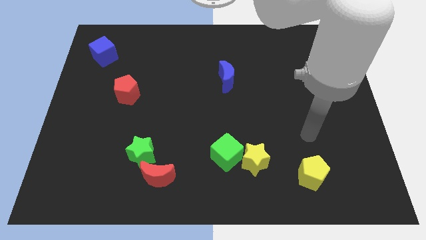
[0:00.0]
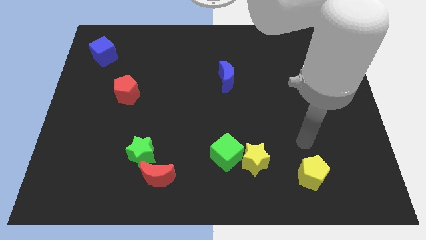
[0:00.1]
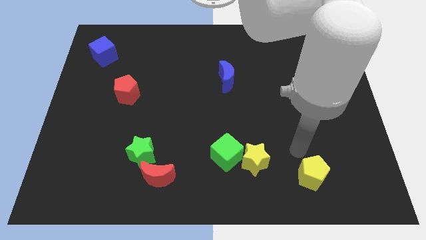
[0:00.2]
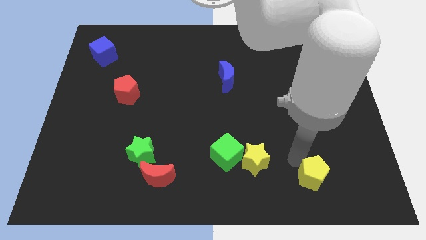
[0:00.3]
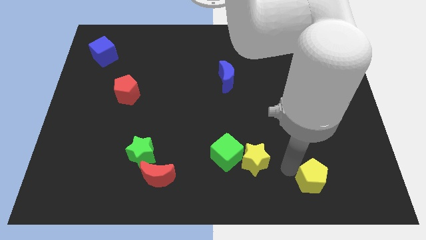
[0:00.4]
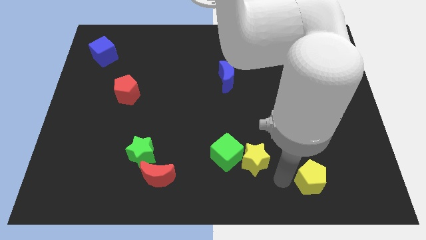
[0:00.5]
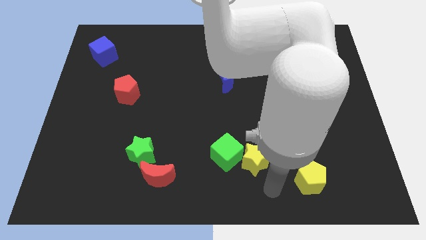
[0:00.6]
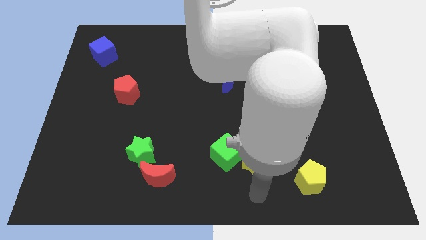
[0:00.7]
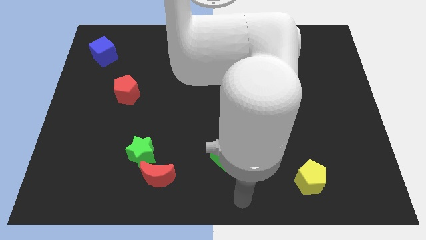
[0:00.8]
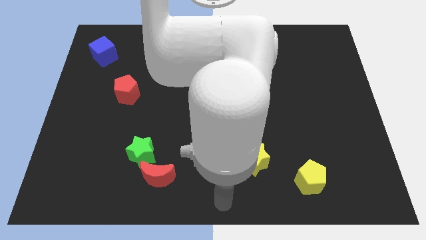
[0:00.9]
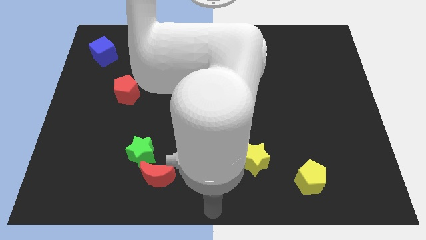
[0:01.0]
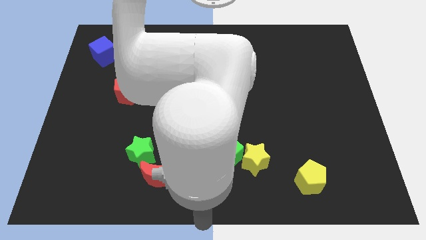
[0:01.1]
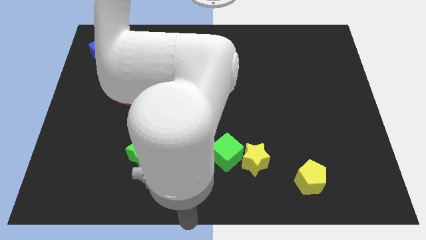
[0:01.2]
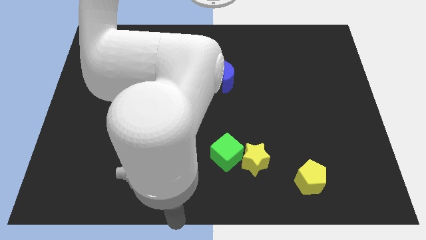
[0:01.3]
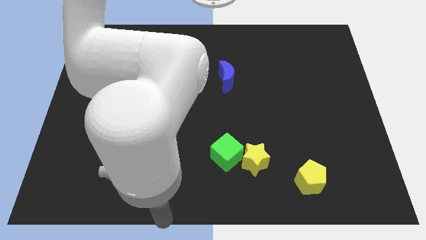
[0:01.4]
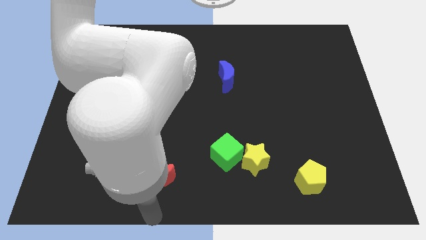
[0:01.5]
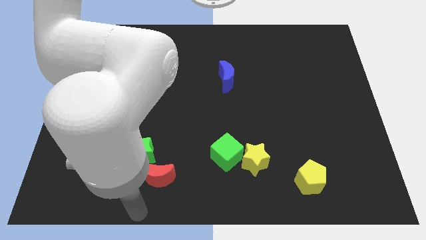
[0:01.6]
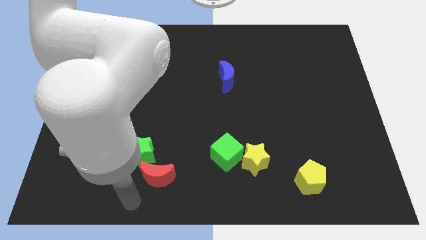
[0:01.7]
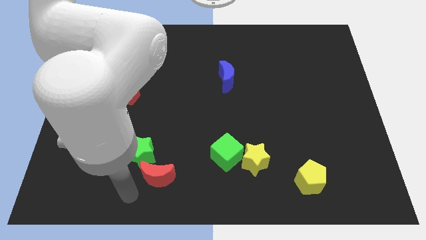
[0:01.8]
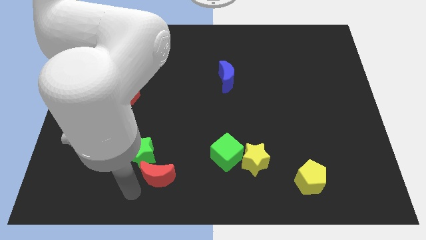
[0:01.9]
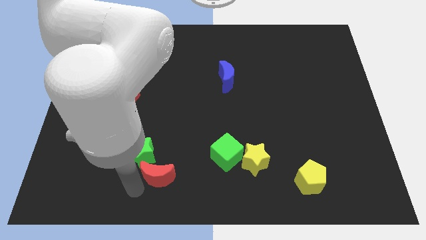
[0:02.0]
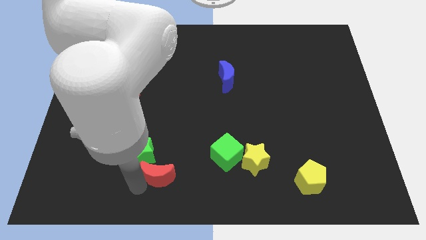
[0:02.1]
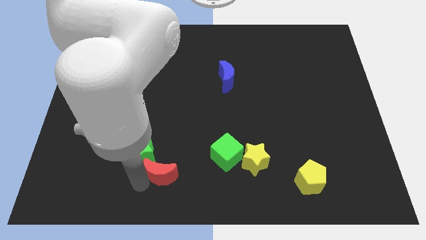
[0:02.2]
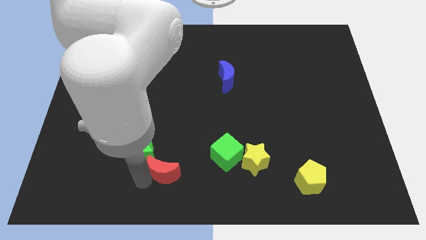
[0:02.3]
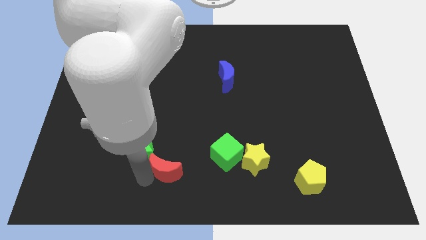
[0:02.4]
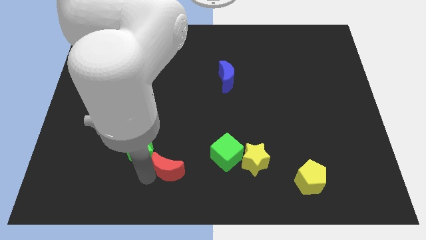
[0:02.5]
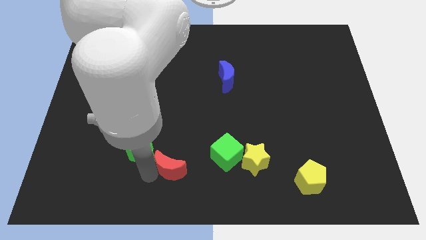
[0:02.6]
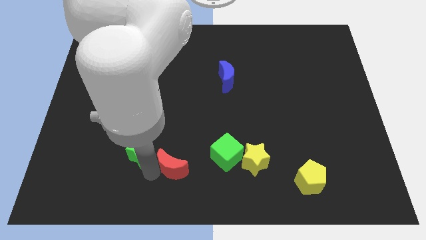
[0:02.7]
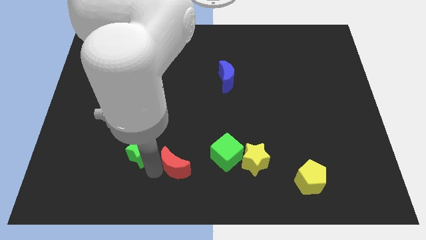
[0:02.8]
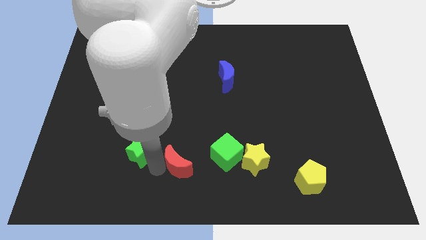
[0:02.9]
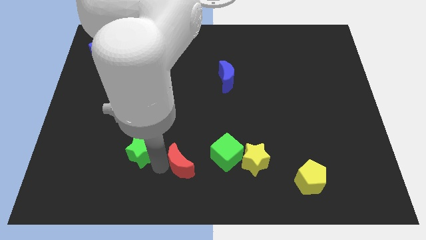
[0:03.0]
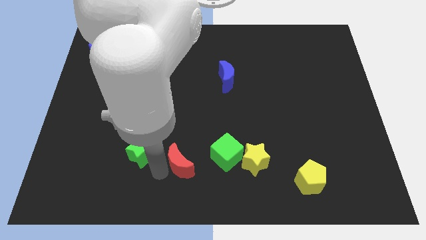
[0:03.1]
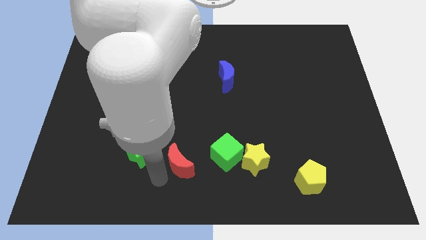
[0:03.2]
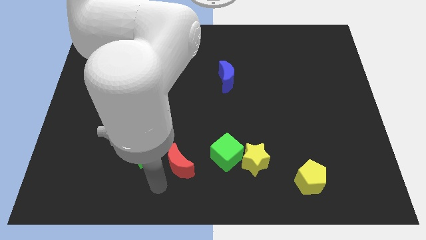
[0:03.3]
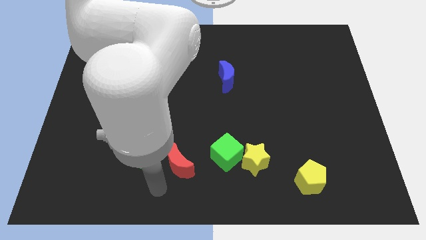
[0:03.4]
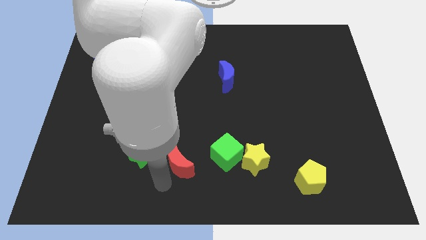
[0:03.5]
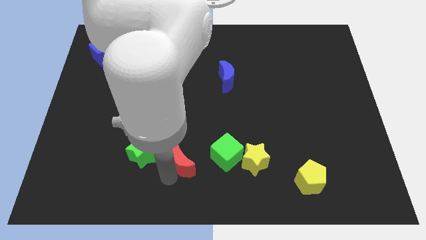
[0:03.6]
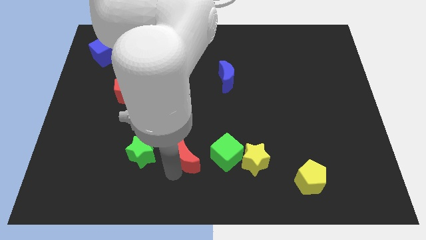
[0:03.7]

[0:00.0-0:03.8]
push the red moon upwards and to the right diagonally a little

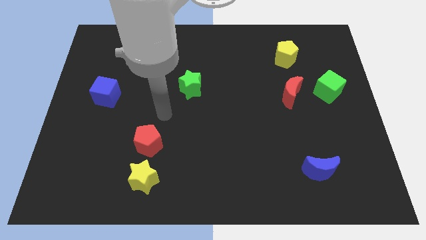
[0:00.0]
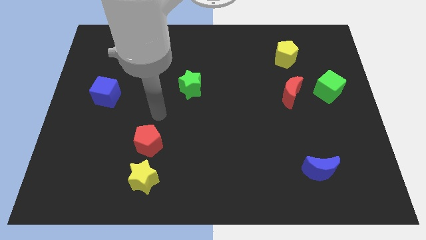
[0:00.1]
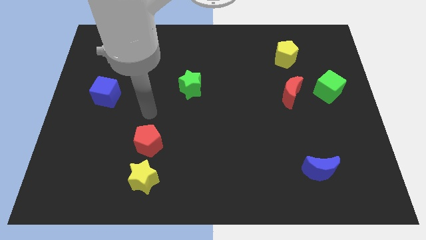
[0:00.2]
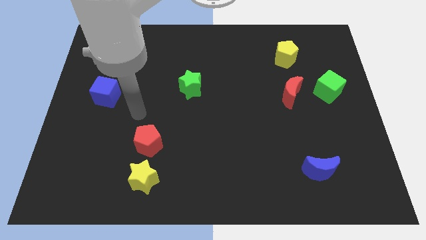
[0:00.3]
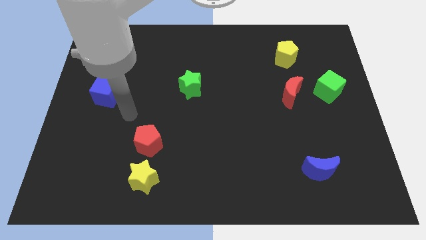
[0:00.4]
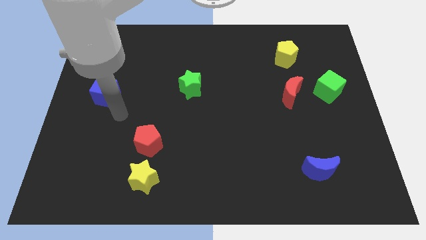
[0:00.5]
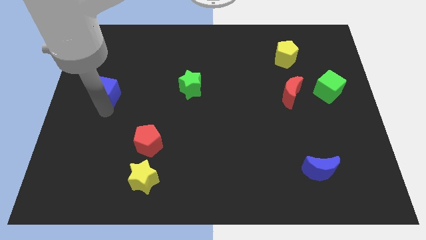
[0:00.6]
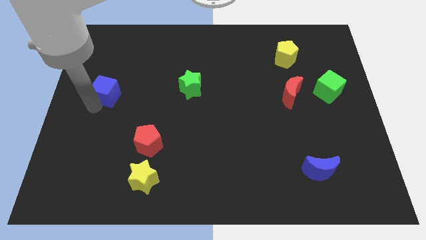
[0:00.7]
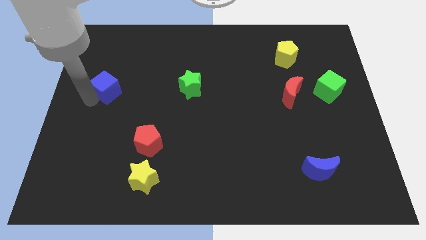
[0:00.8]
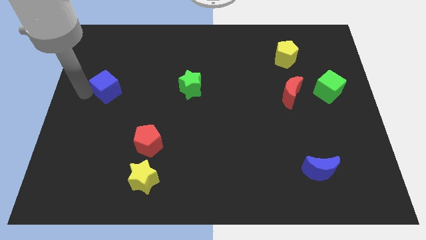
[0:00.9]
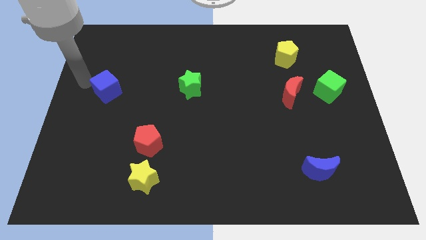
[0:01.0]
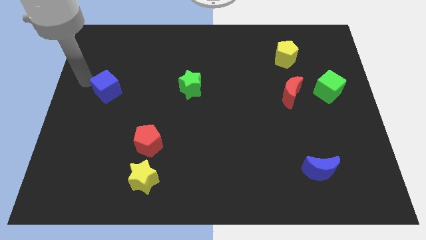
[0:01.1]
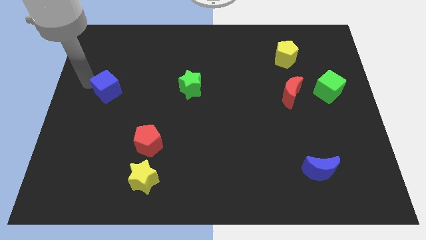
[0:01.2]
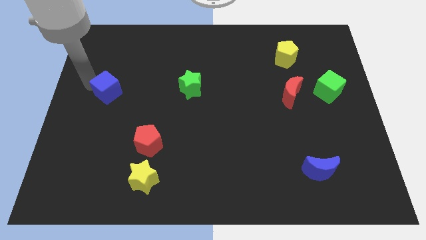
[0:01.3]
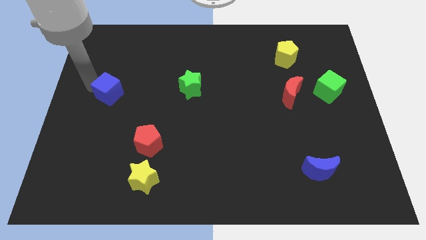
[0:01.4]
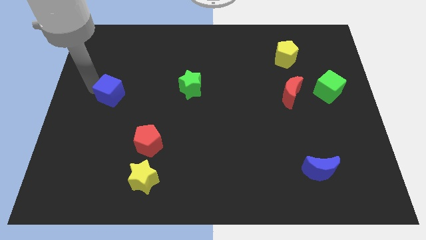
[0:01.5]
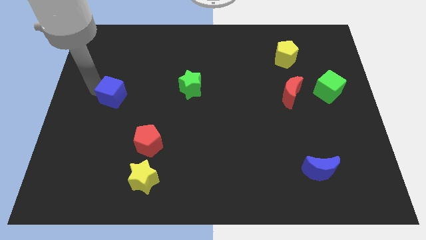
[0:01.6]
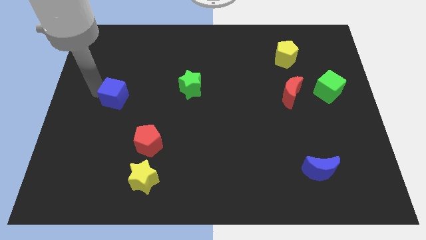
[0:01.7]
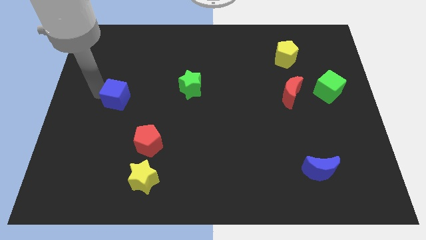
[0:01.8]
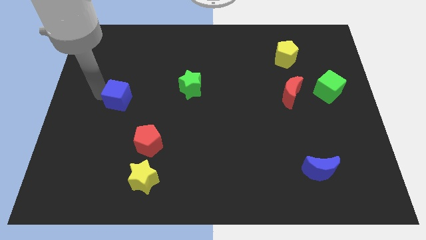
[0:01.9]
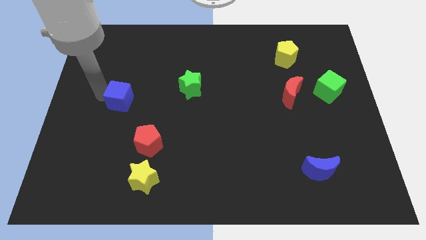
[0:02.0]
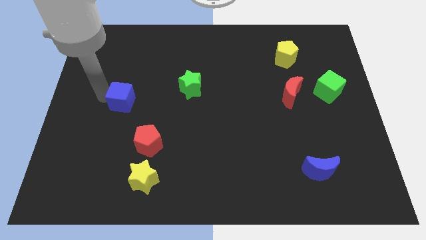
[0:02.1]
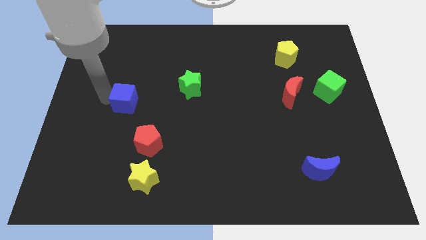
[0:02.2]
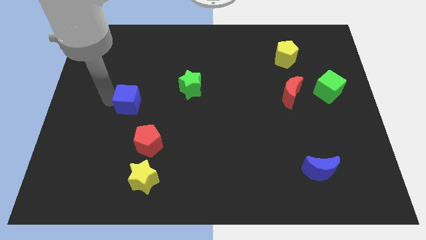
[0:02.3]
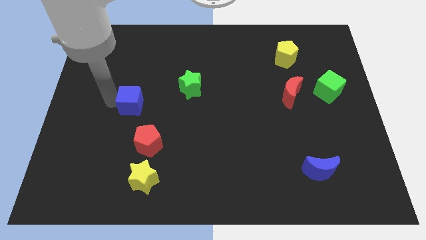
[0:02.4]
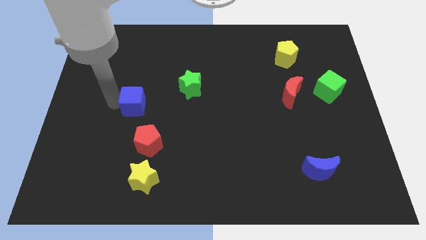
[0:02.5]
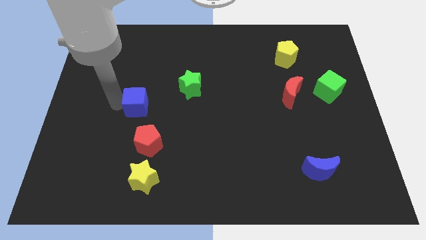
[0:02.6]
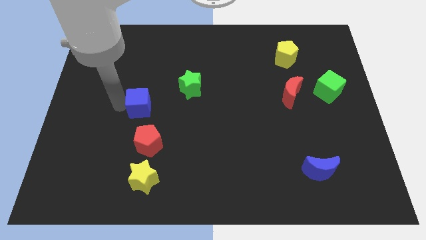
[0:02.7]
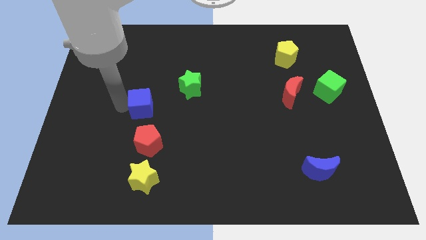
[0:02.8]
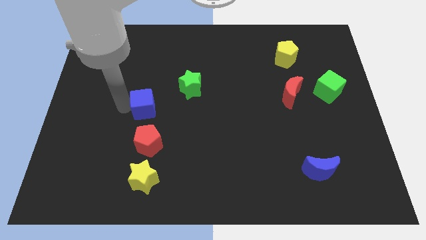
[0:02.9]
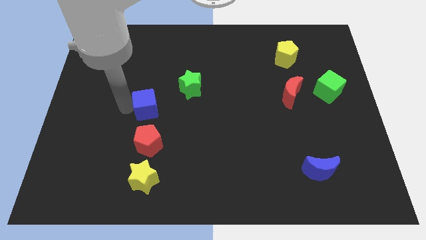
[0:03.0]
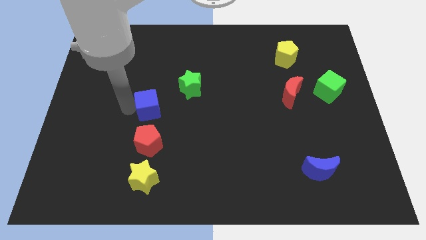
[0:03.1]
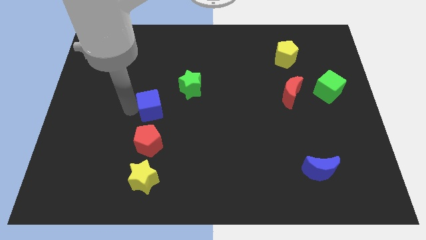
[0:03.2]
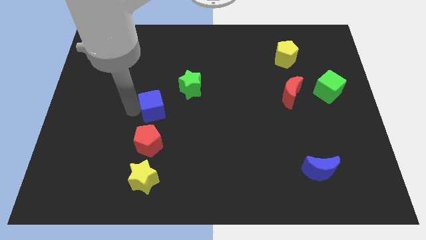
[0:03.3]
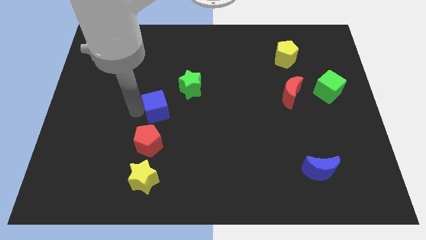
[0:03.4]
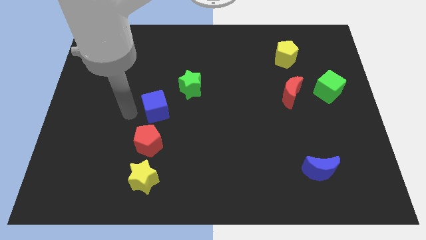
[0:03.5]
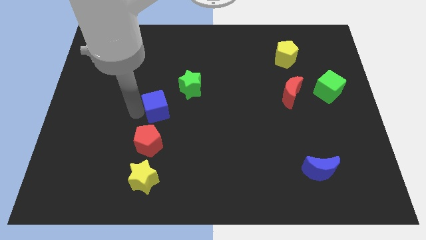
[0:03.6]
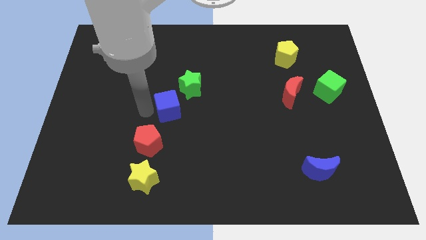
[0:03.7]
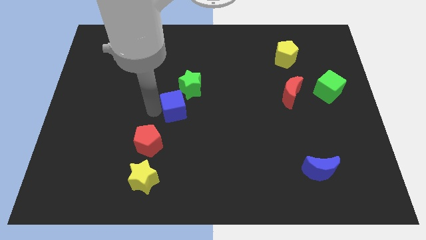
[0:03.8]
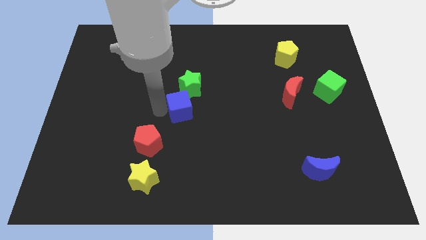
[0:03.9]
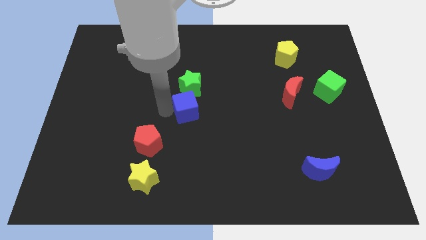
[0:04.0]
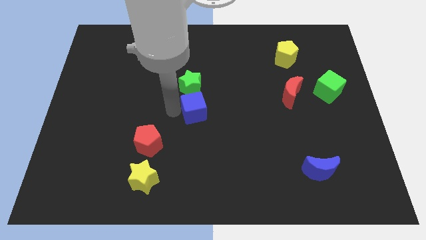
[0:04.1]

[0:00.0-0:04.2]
slide the blue cube right
